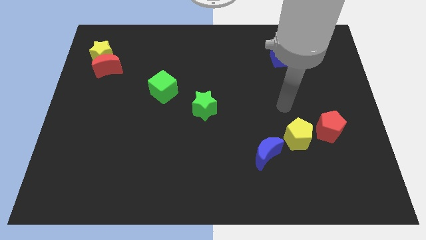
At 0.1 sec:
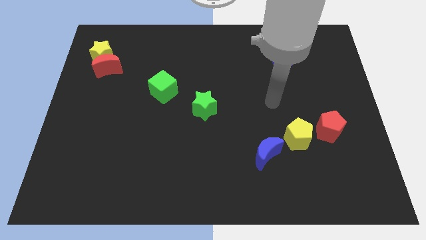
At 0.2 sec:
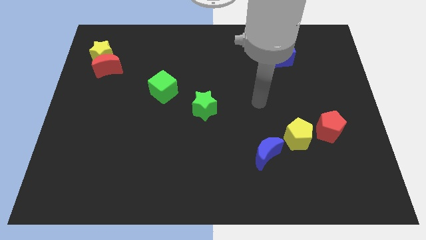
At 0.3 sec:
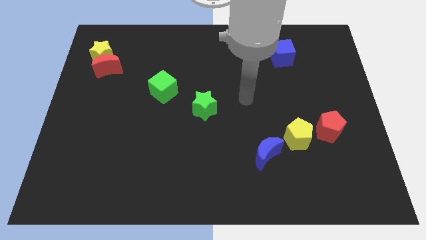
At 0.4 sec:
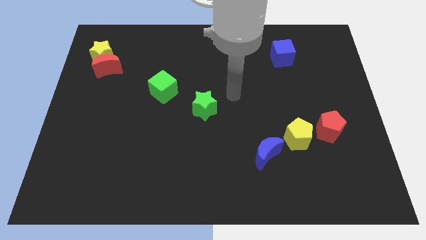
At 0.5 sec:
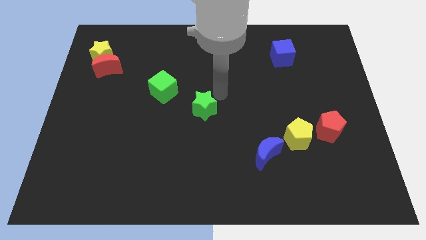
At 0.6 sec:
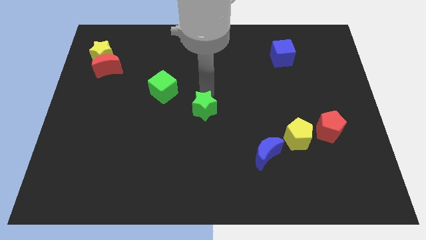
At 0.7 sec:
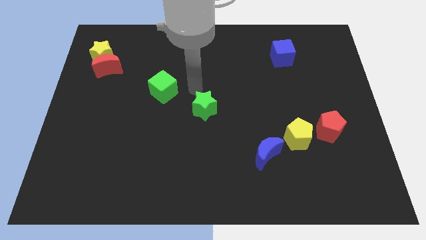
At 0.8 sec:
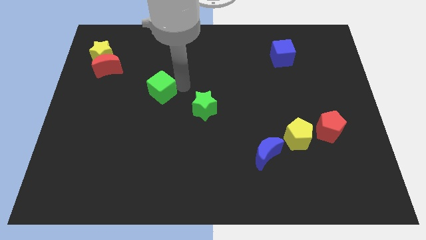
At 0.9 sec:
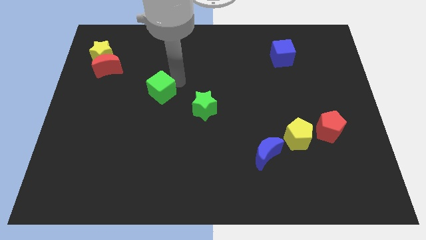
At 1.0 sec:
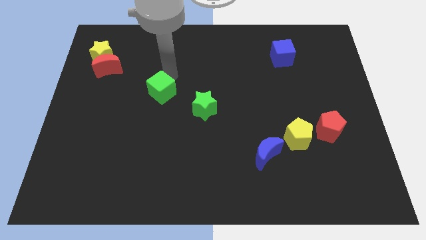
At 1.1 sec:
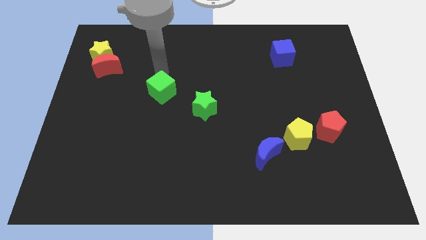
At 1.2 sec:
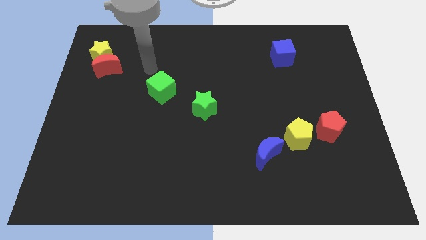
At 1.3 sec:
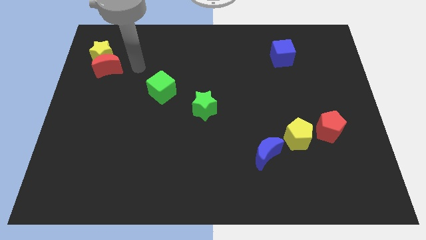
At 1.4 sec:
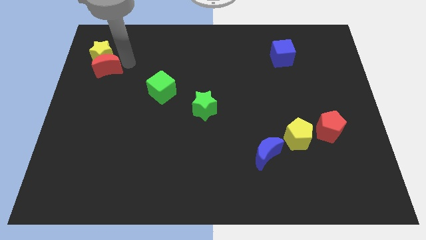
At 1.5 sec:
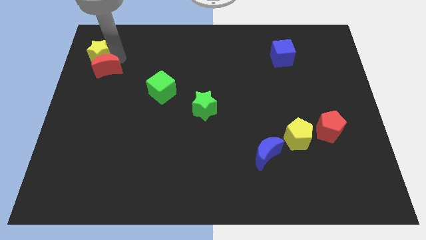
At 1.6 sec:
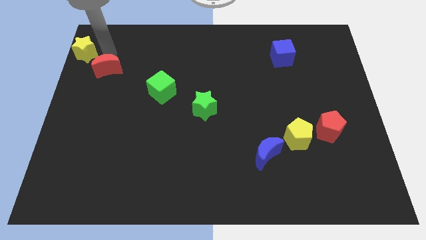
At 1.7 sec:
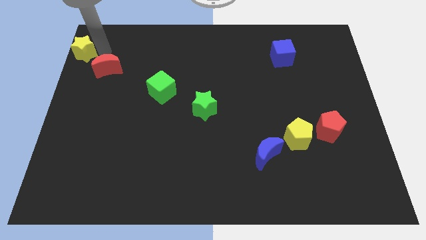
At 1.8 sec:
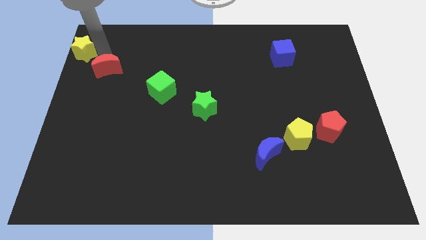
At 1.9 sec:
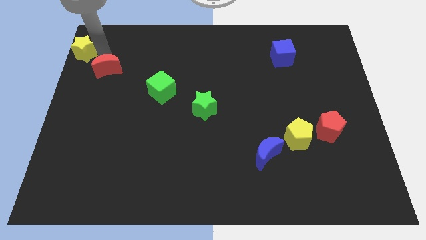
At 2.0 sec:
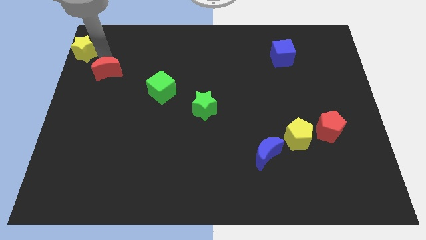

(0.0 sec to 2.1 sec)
separate the red moon from the yellow star

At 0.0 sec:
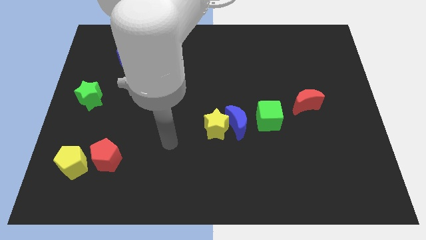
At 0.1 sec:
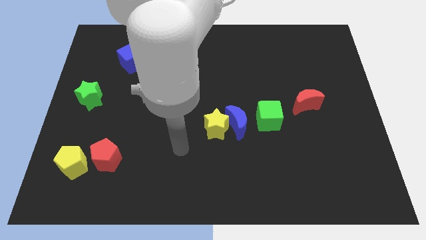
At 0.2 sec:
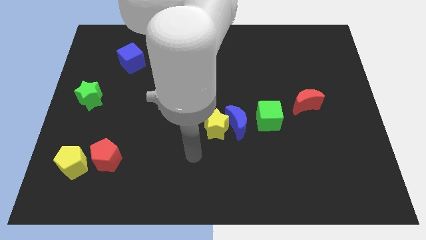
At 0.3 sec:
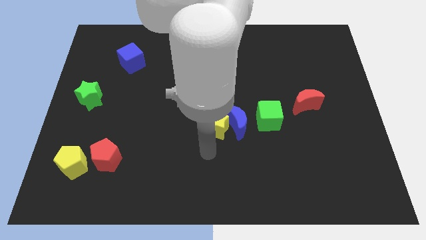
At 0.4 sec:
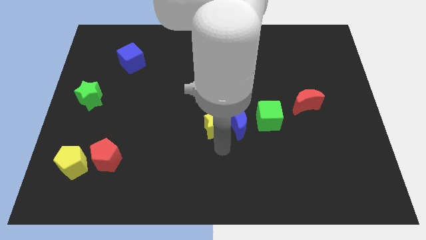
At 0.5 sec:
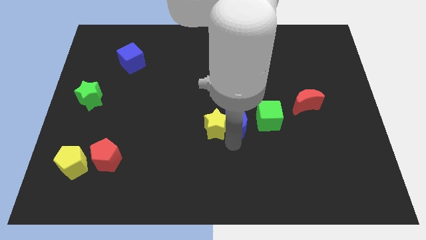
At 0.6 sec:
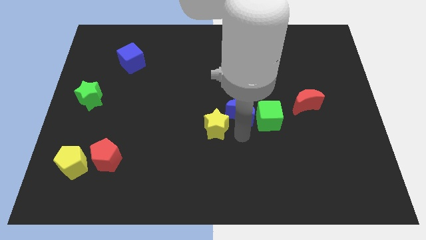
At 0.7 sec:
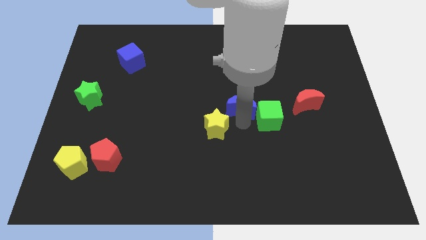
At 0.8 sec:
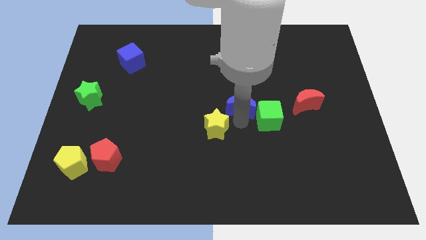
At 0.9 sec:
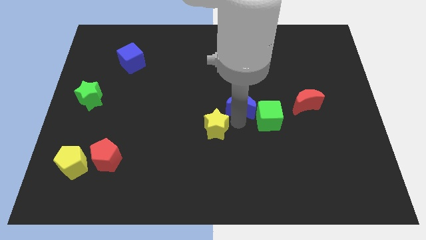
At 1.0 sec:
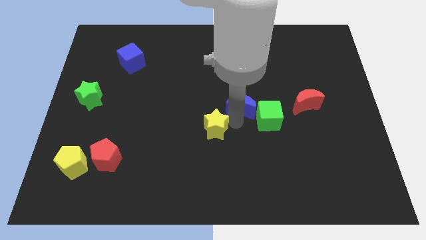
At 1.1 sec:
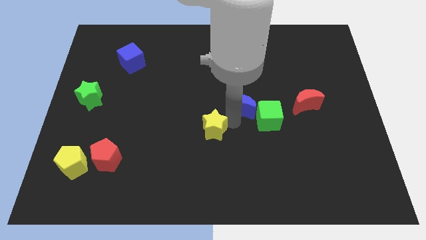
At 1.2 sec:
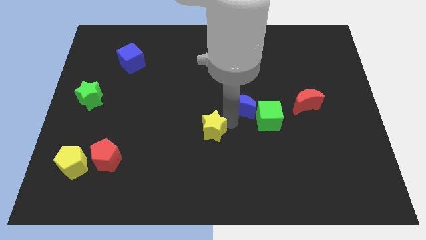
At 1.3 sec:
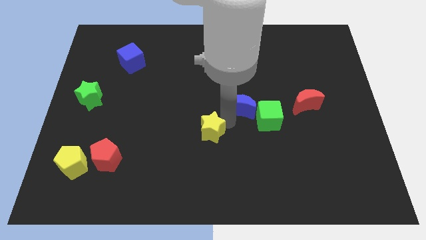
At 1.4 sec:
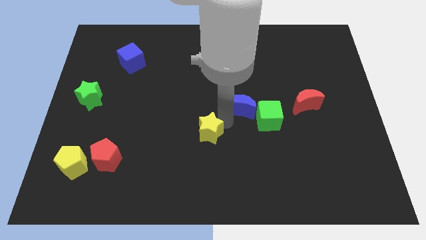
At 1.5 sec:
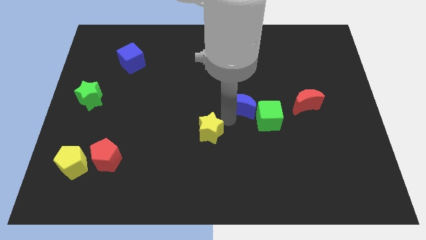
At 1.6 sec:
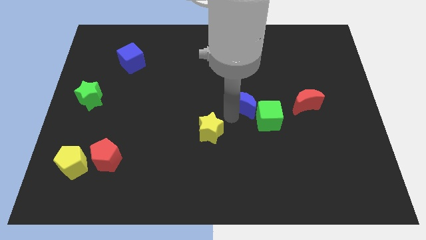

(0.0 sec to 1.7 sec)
separate the yellow star from the blue moon

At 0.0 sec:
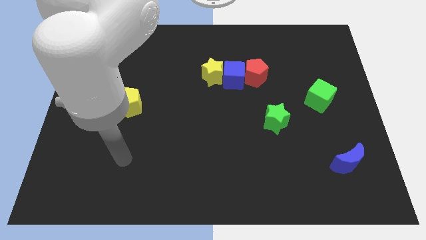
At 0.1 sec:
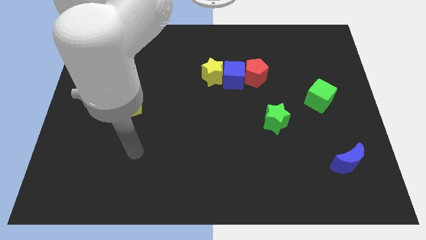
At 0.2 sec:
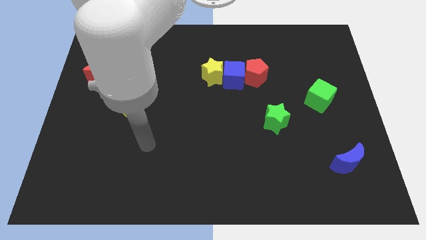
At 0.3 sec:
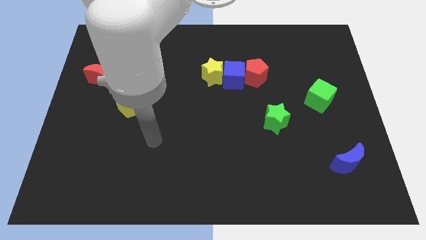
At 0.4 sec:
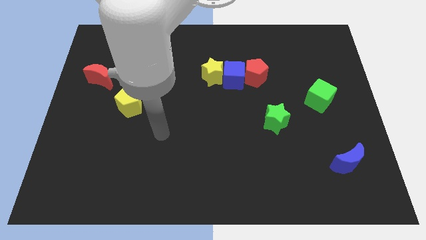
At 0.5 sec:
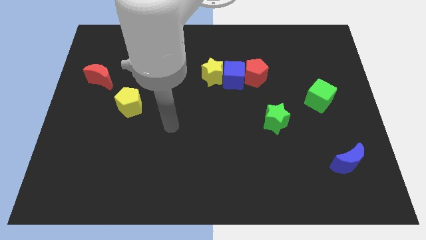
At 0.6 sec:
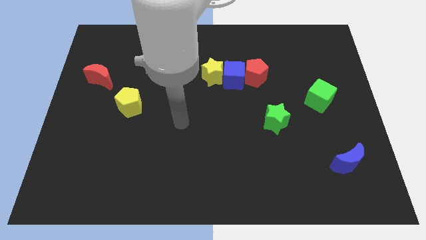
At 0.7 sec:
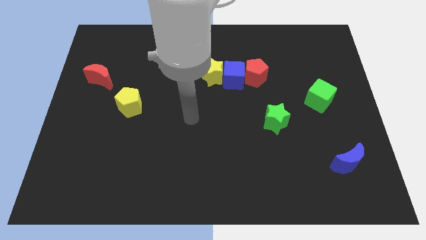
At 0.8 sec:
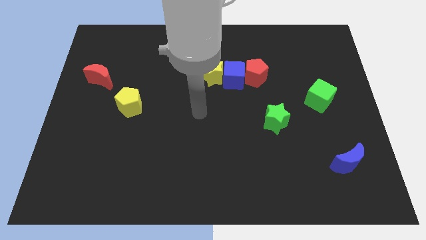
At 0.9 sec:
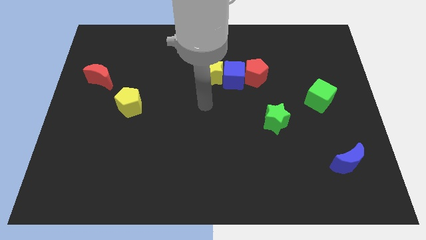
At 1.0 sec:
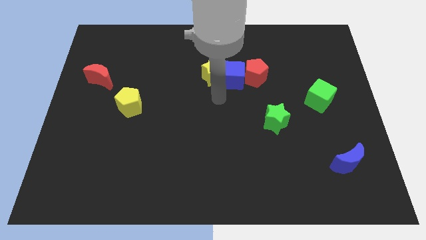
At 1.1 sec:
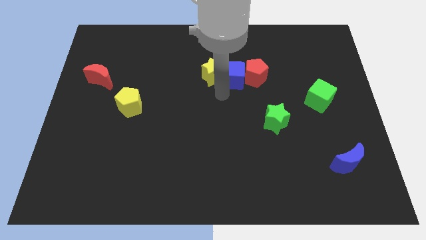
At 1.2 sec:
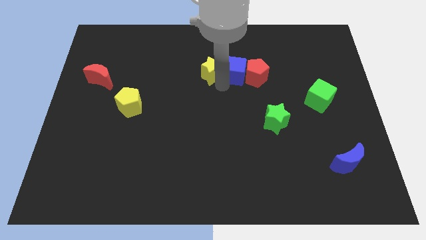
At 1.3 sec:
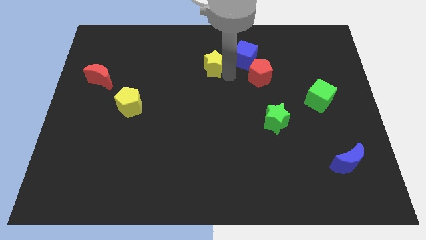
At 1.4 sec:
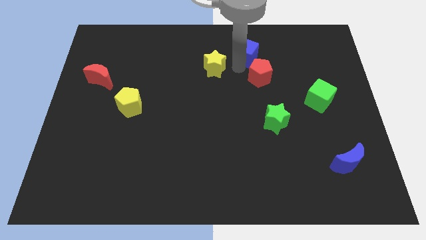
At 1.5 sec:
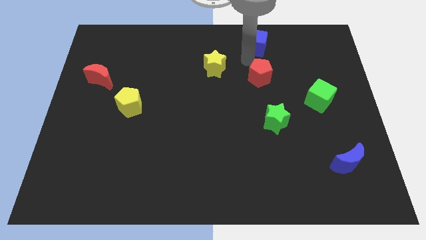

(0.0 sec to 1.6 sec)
separate the red pentagon from the blue cube

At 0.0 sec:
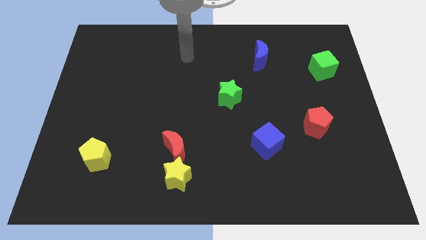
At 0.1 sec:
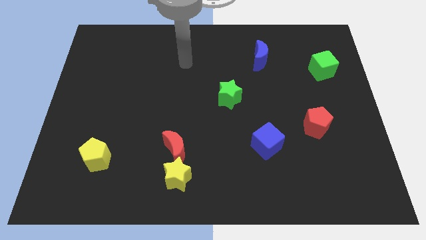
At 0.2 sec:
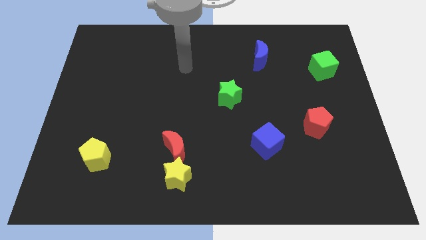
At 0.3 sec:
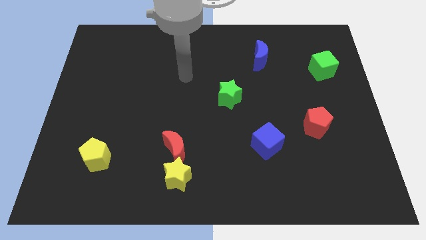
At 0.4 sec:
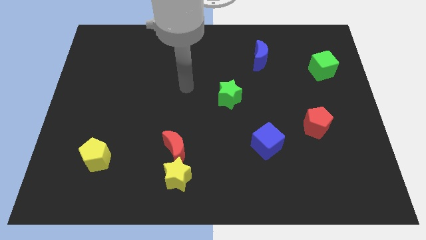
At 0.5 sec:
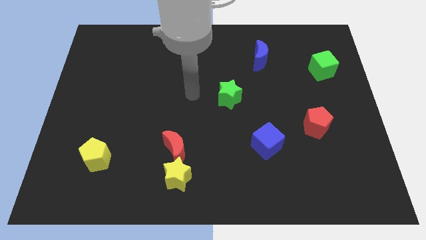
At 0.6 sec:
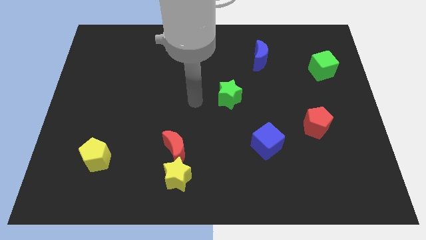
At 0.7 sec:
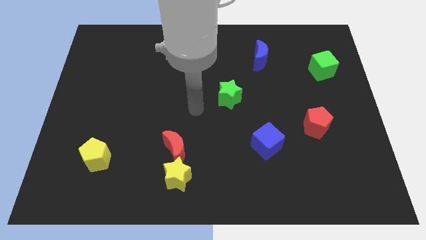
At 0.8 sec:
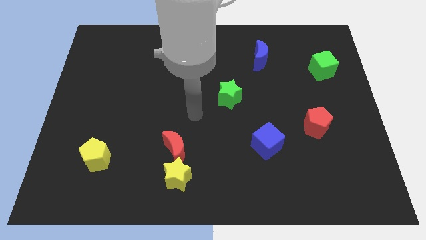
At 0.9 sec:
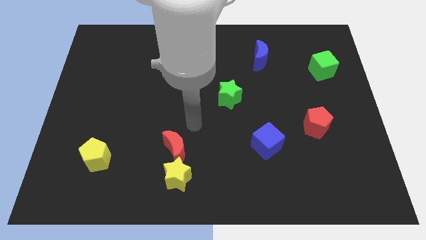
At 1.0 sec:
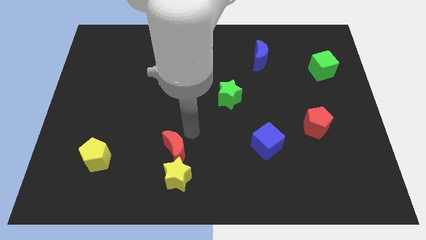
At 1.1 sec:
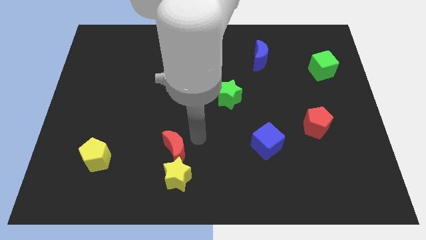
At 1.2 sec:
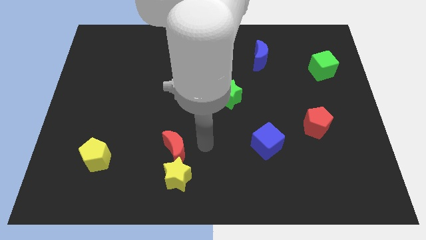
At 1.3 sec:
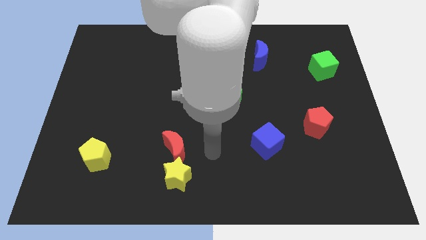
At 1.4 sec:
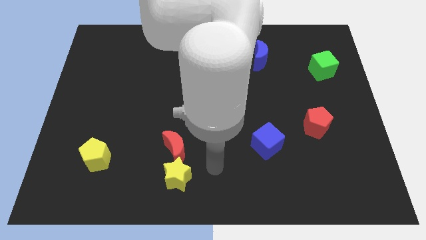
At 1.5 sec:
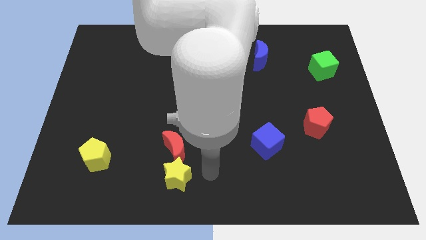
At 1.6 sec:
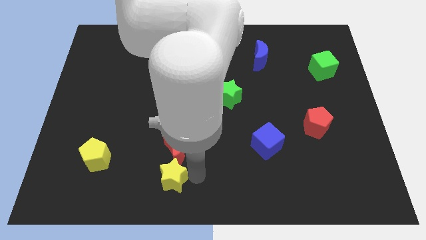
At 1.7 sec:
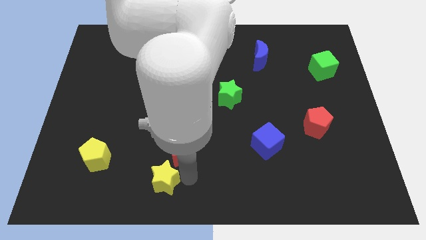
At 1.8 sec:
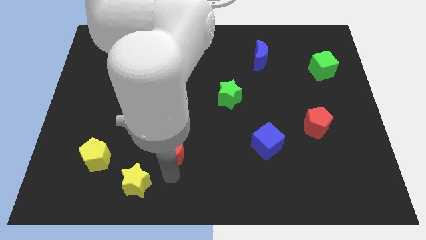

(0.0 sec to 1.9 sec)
pull the red moon apart from the yellow star

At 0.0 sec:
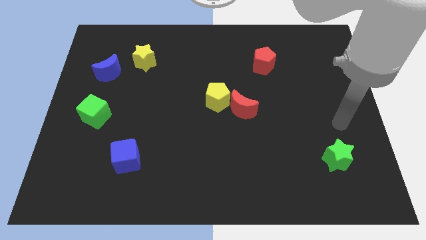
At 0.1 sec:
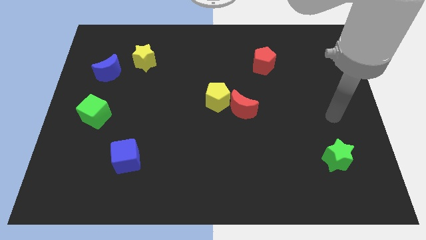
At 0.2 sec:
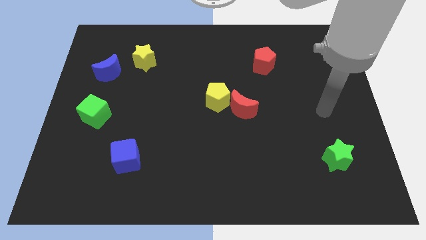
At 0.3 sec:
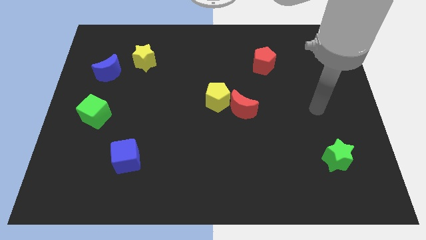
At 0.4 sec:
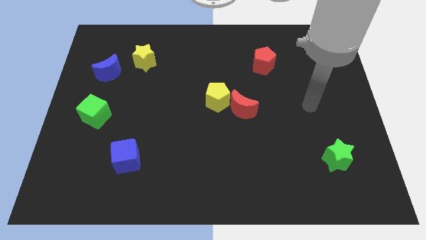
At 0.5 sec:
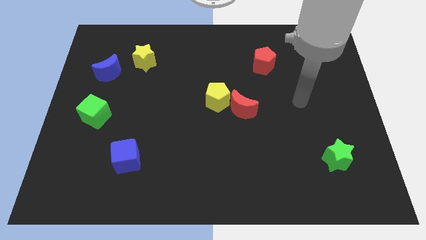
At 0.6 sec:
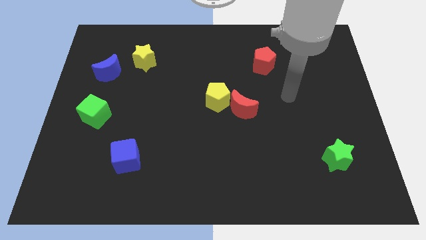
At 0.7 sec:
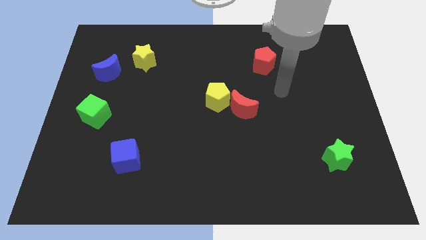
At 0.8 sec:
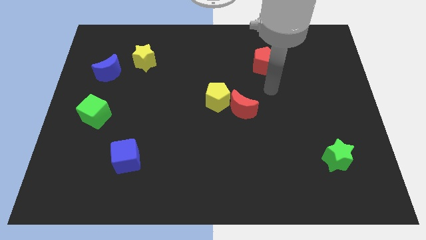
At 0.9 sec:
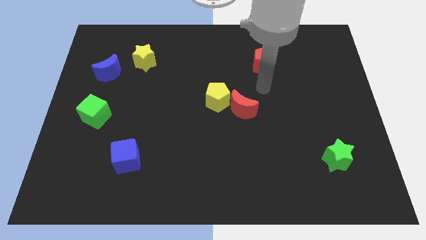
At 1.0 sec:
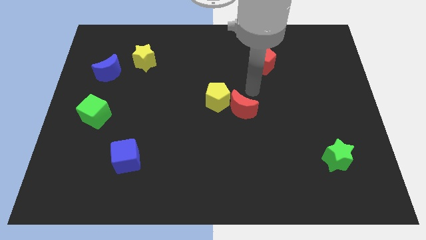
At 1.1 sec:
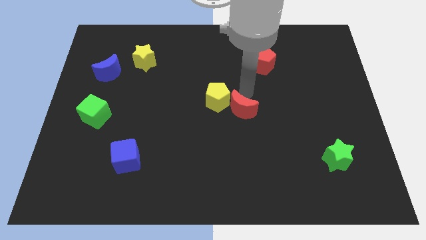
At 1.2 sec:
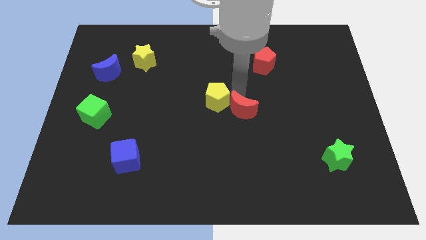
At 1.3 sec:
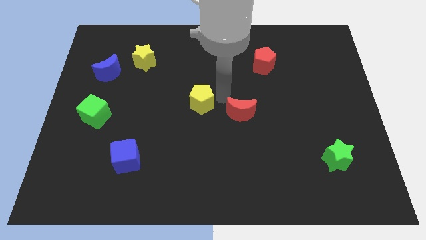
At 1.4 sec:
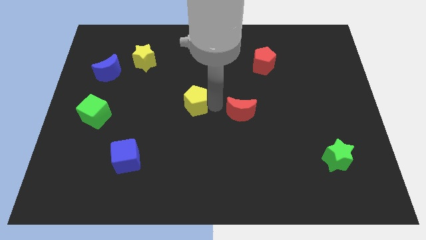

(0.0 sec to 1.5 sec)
move the red moon away from the yellow pentagon

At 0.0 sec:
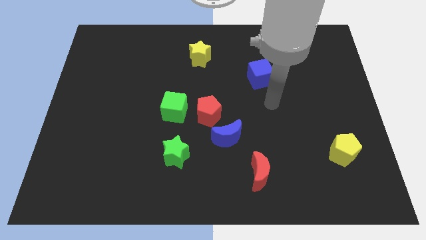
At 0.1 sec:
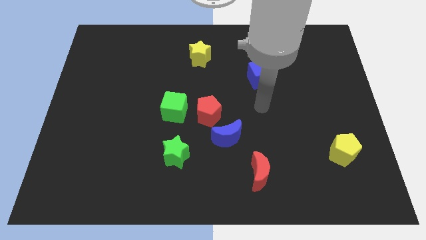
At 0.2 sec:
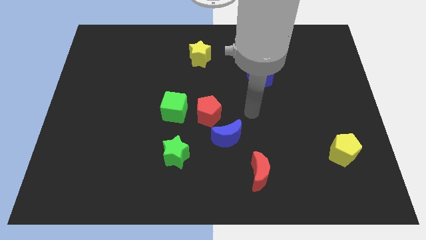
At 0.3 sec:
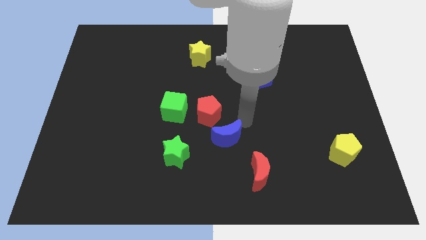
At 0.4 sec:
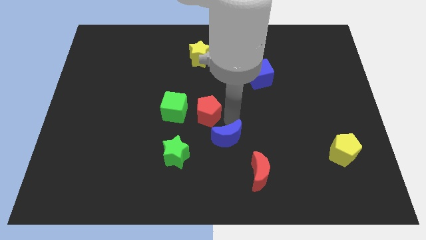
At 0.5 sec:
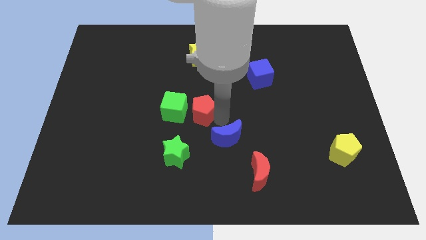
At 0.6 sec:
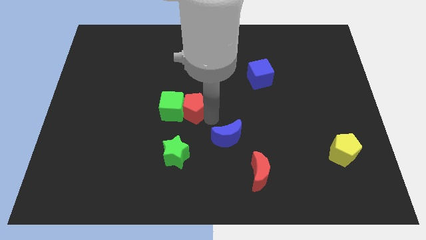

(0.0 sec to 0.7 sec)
move the blue moon away from the red pentagon
